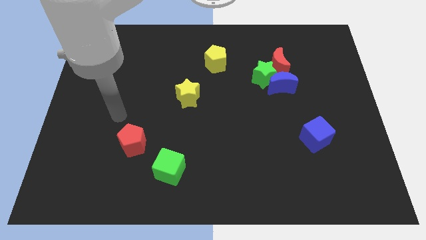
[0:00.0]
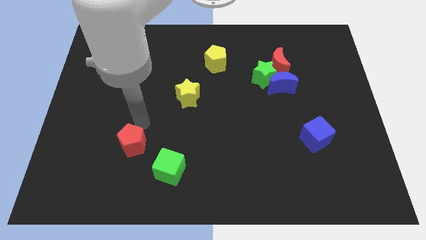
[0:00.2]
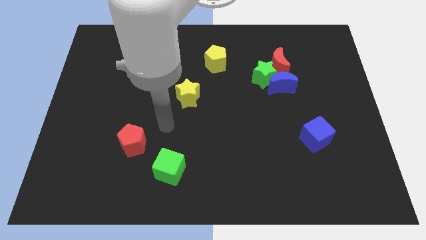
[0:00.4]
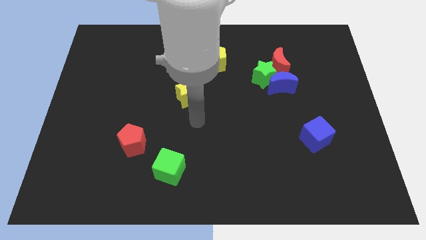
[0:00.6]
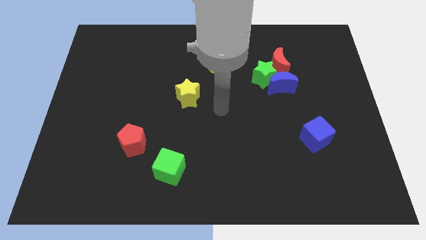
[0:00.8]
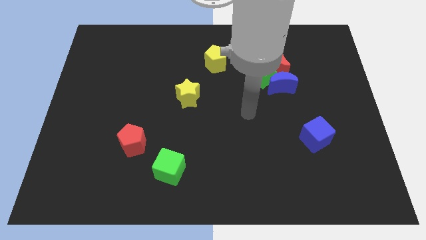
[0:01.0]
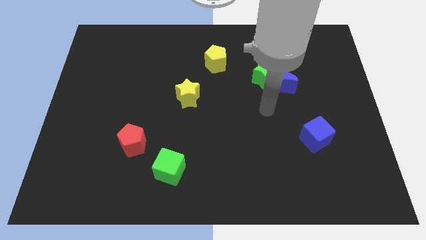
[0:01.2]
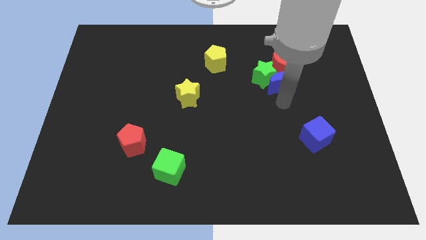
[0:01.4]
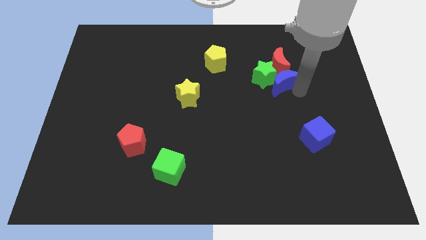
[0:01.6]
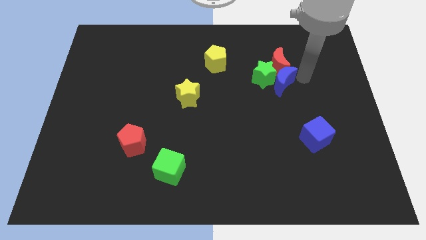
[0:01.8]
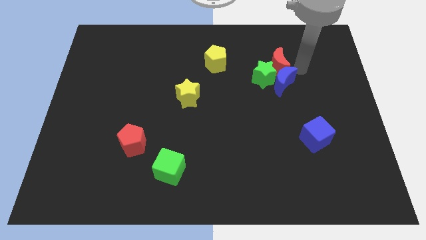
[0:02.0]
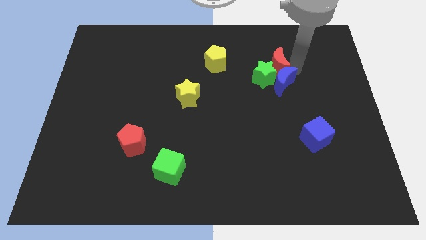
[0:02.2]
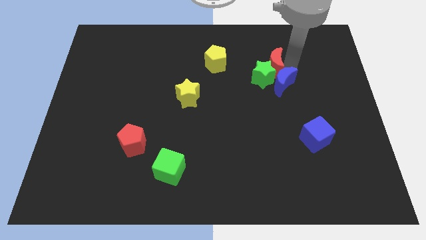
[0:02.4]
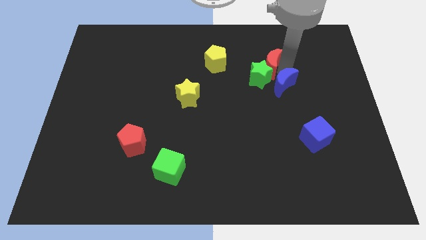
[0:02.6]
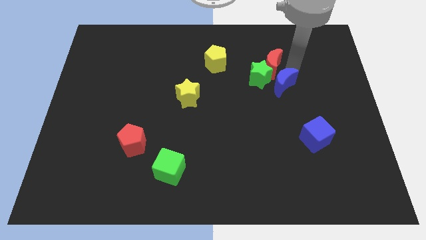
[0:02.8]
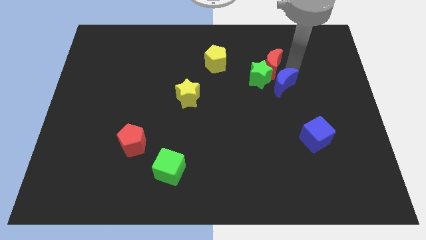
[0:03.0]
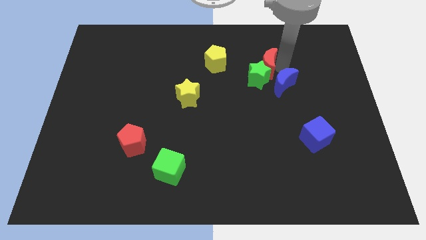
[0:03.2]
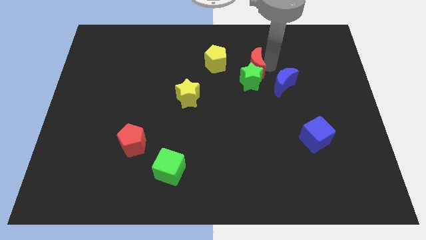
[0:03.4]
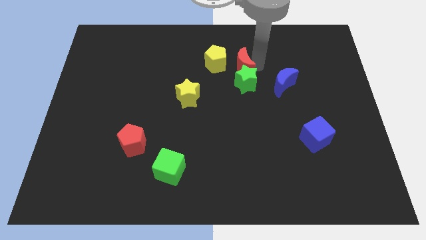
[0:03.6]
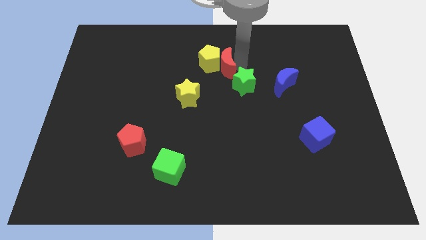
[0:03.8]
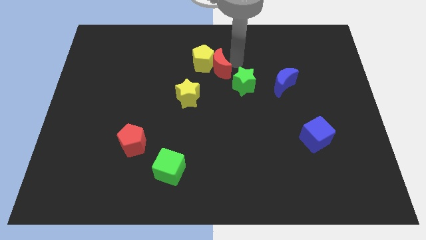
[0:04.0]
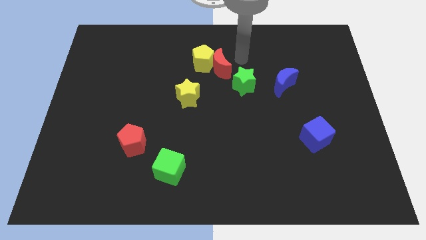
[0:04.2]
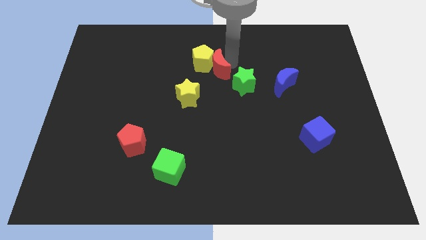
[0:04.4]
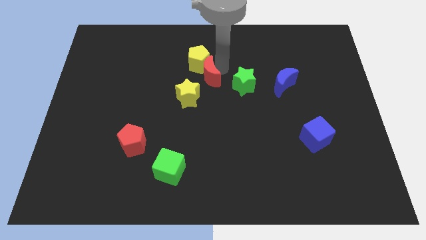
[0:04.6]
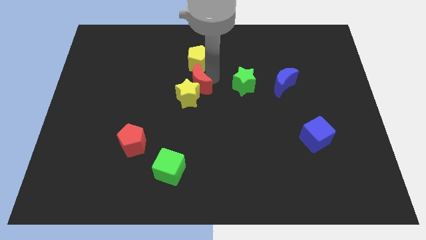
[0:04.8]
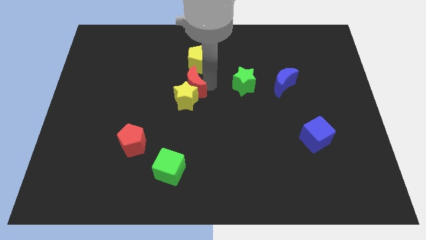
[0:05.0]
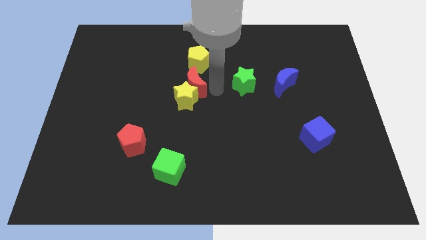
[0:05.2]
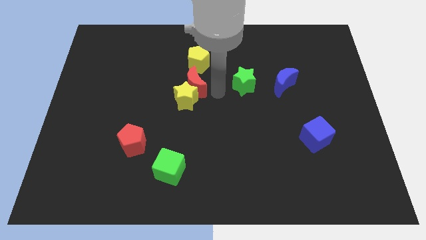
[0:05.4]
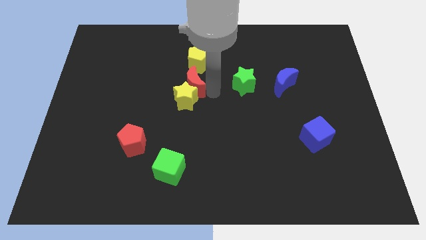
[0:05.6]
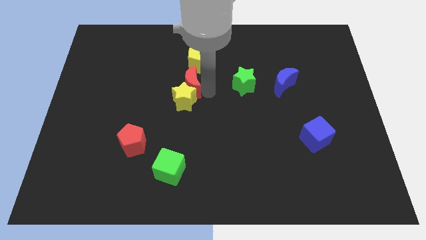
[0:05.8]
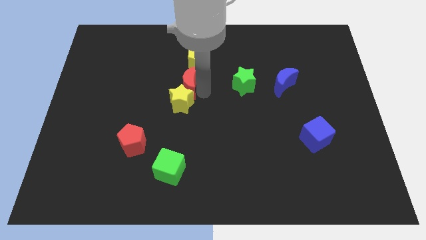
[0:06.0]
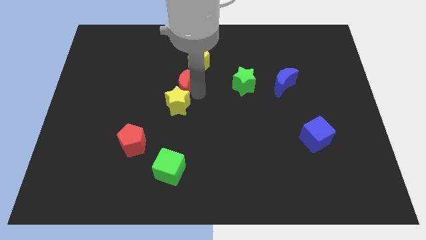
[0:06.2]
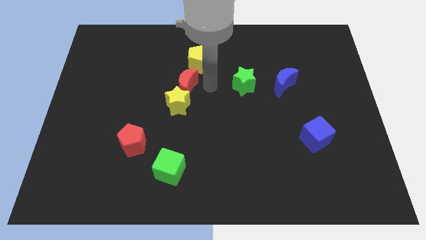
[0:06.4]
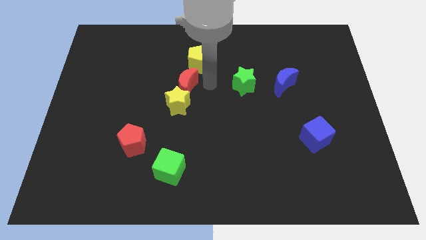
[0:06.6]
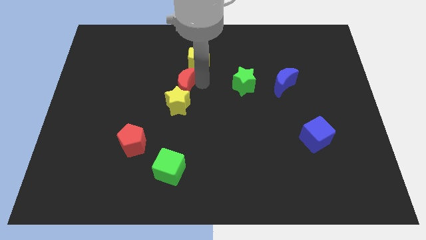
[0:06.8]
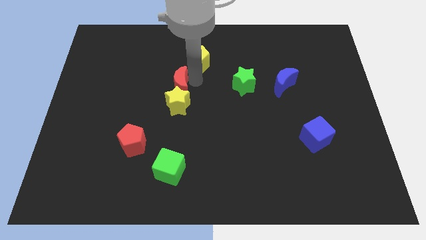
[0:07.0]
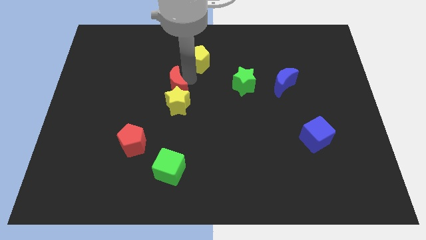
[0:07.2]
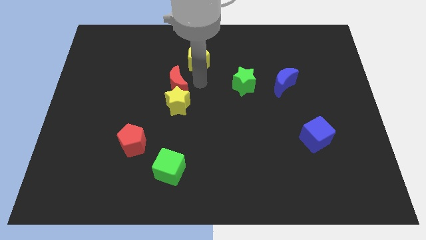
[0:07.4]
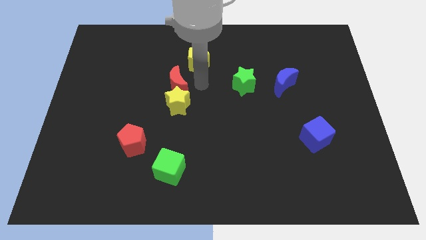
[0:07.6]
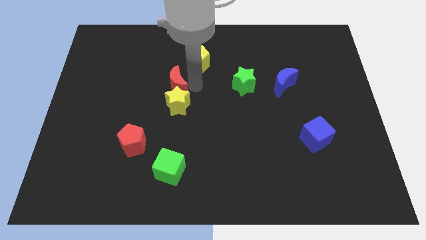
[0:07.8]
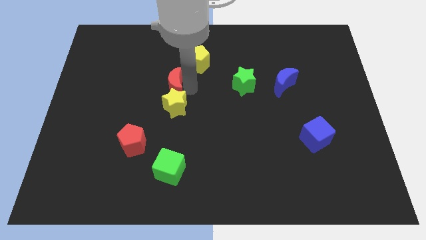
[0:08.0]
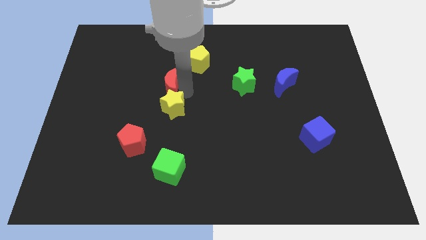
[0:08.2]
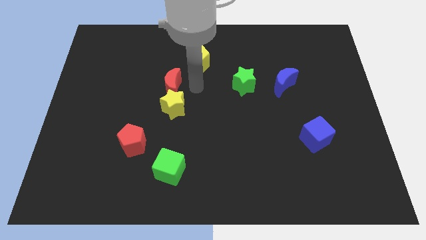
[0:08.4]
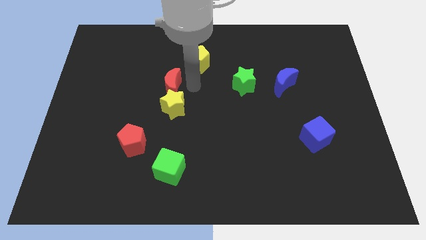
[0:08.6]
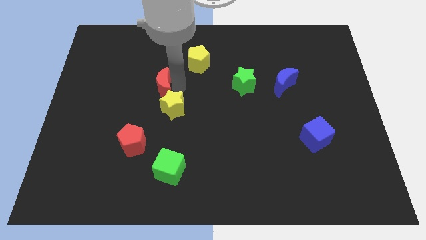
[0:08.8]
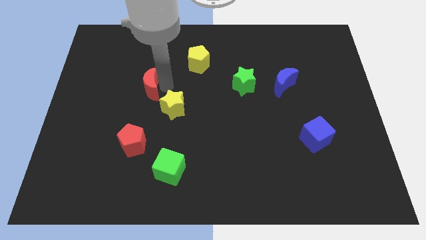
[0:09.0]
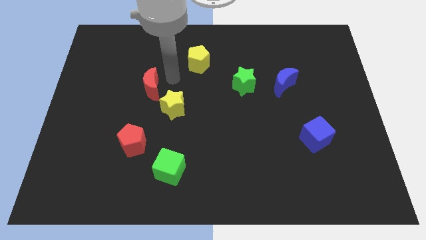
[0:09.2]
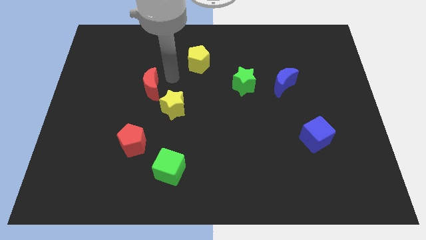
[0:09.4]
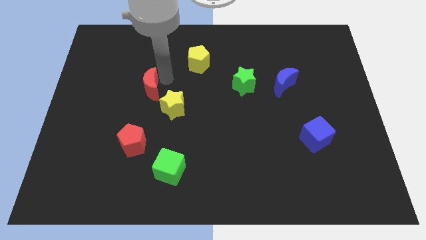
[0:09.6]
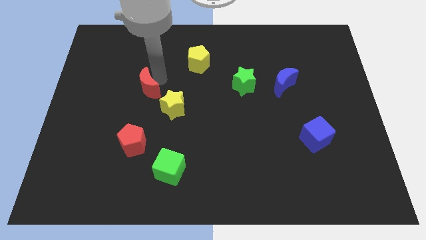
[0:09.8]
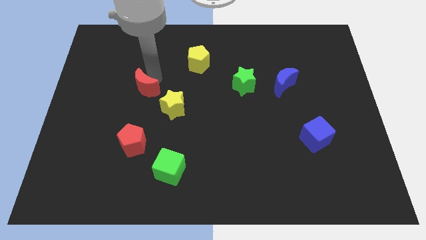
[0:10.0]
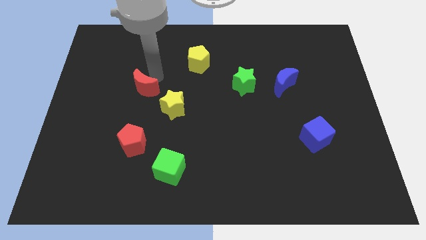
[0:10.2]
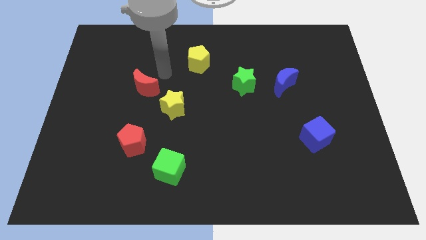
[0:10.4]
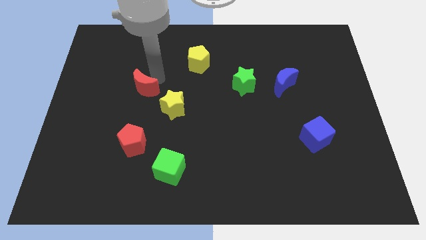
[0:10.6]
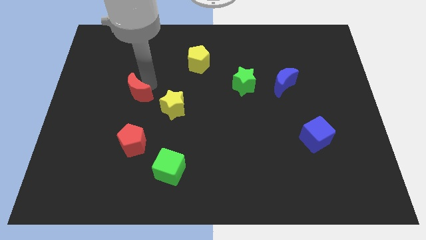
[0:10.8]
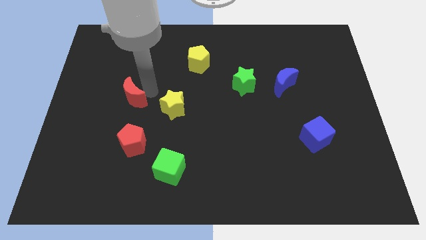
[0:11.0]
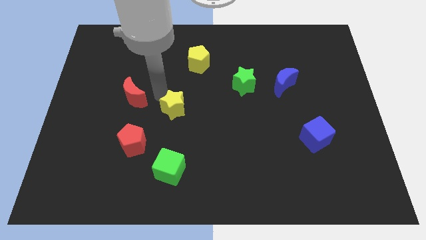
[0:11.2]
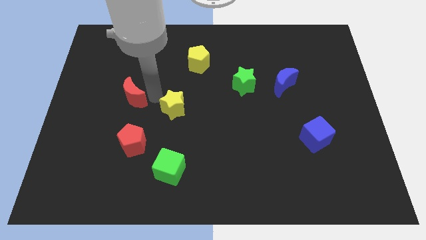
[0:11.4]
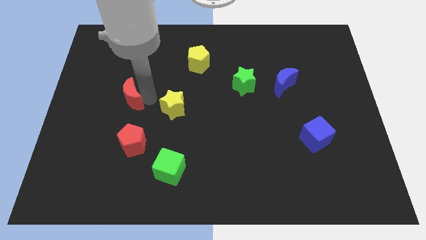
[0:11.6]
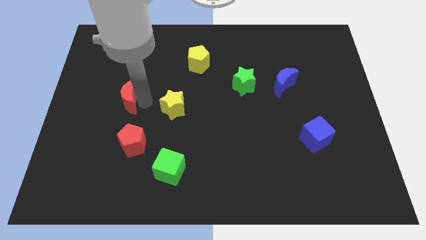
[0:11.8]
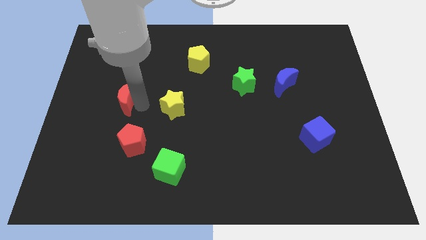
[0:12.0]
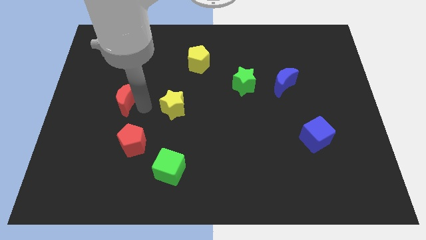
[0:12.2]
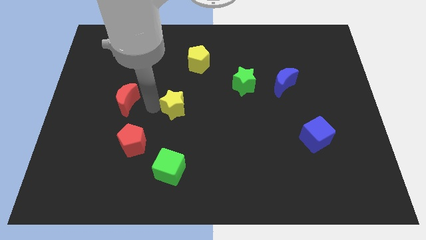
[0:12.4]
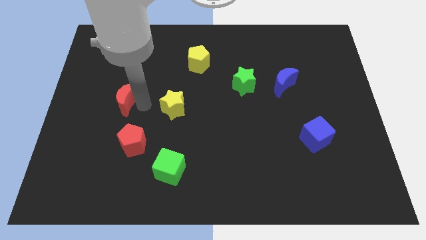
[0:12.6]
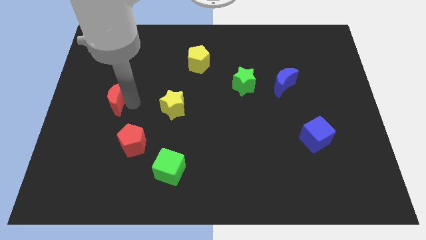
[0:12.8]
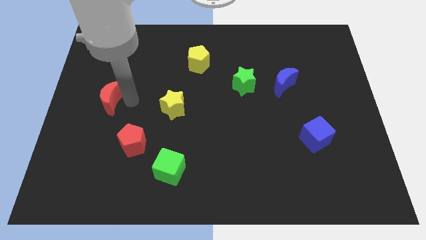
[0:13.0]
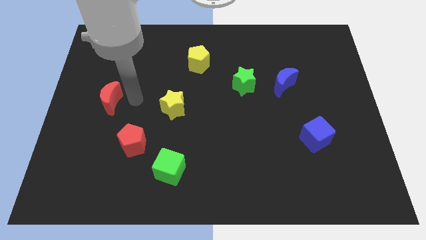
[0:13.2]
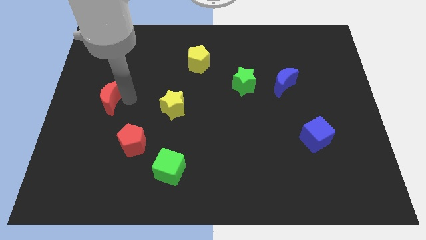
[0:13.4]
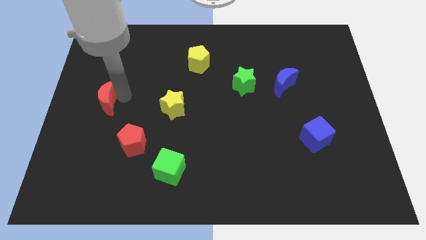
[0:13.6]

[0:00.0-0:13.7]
slide the red moon to the left side
